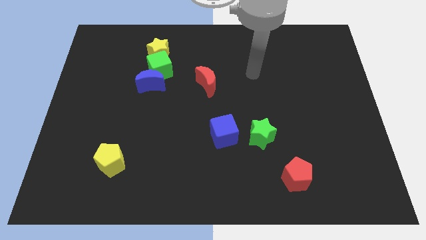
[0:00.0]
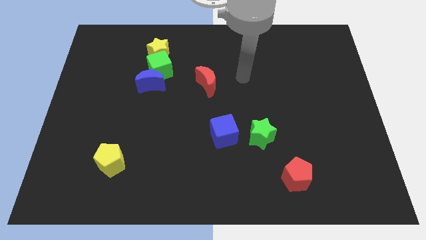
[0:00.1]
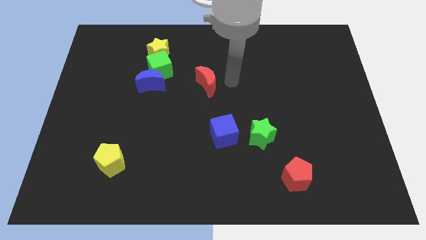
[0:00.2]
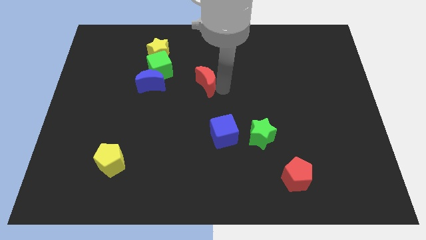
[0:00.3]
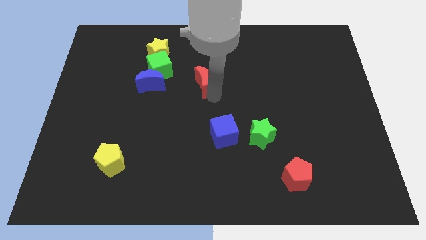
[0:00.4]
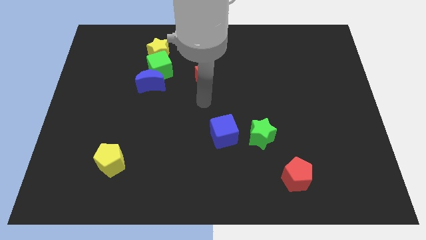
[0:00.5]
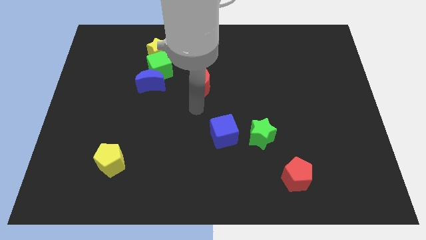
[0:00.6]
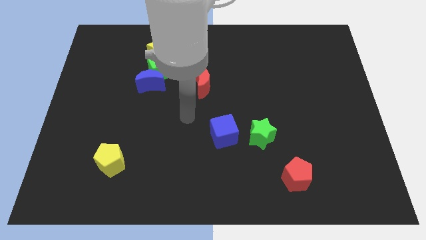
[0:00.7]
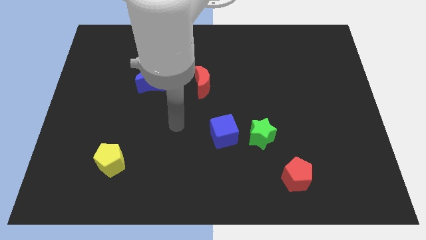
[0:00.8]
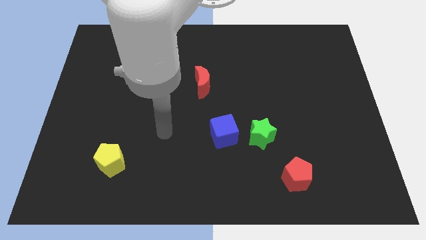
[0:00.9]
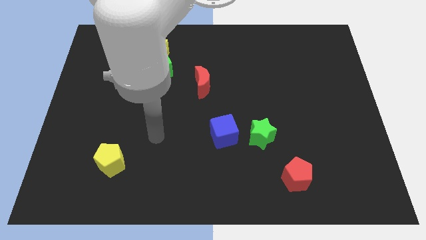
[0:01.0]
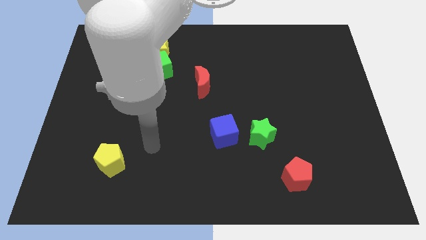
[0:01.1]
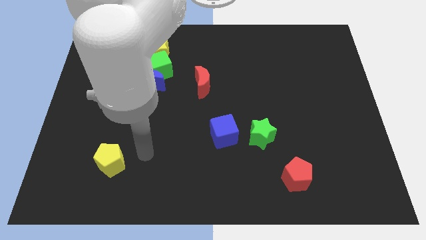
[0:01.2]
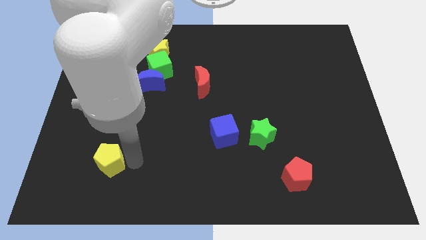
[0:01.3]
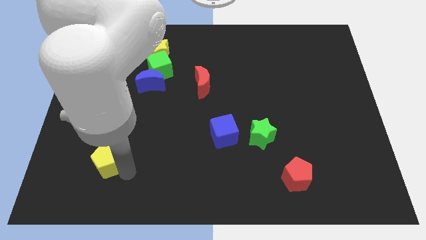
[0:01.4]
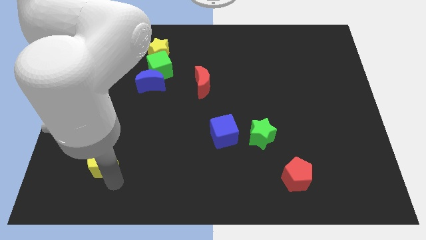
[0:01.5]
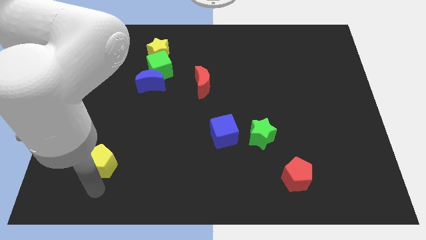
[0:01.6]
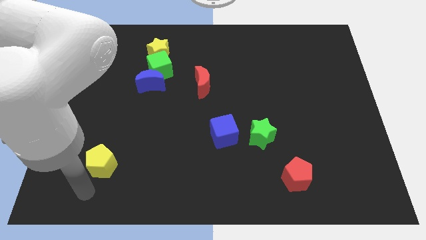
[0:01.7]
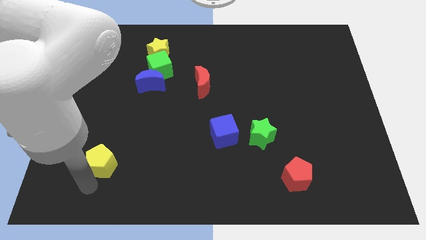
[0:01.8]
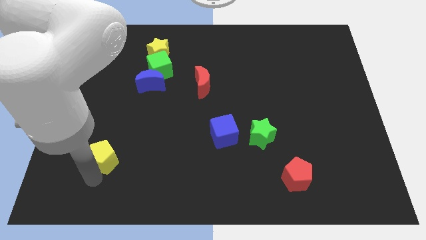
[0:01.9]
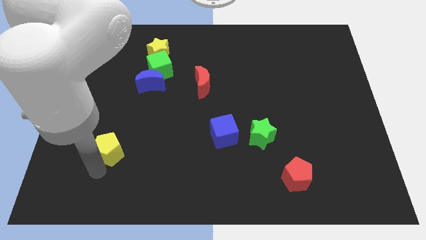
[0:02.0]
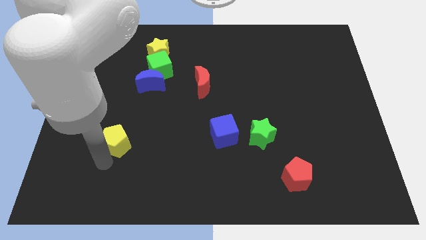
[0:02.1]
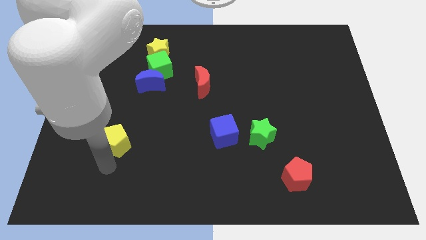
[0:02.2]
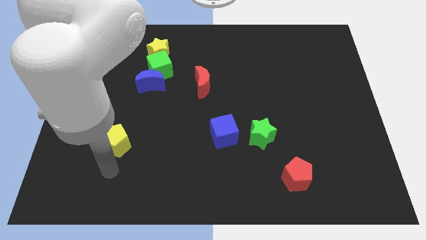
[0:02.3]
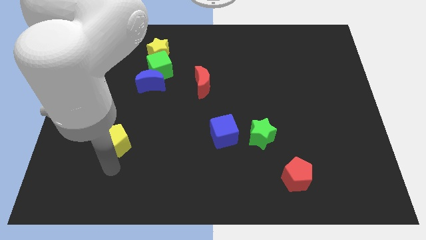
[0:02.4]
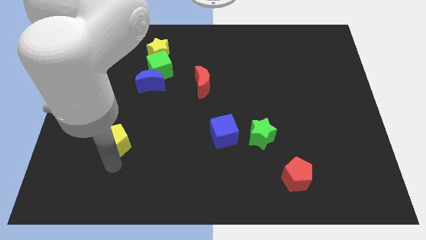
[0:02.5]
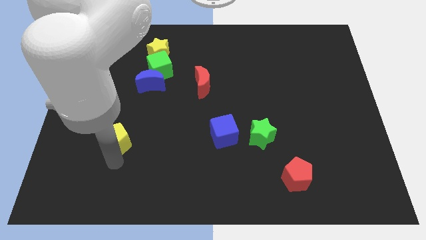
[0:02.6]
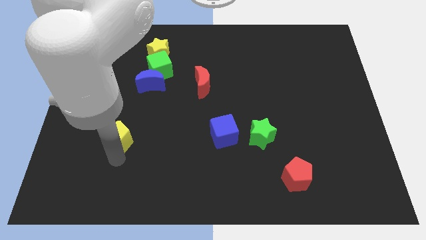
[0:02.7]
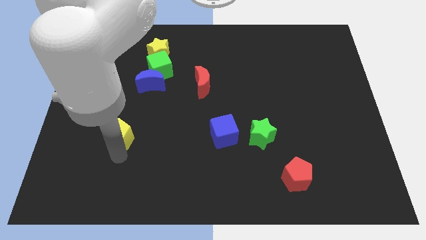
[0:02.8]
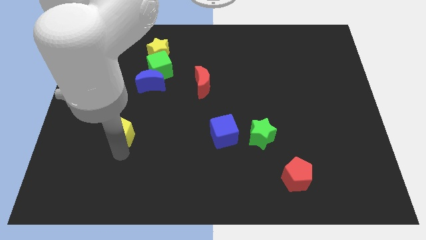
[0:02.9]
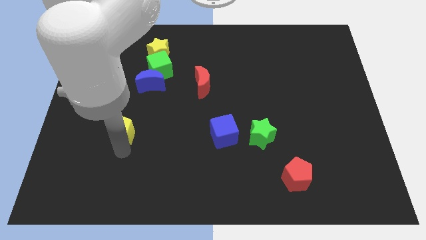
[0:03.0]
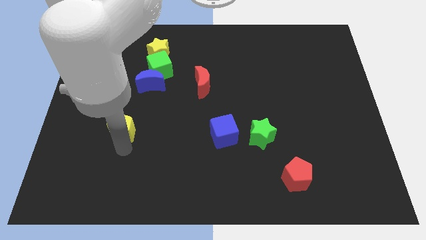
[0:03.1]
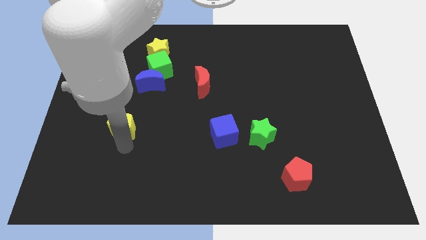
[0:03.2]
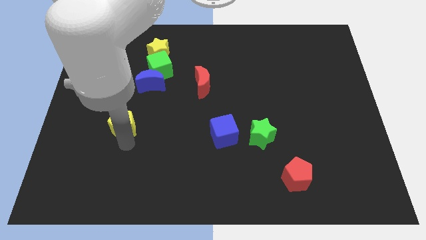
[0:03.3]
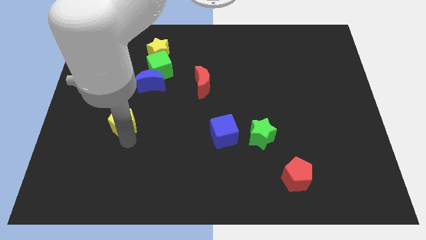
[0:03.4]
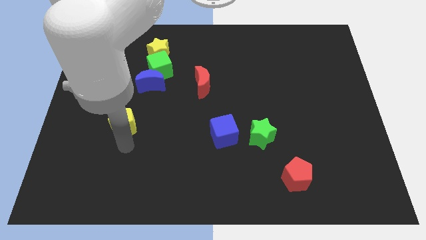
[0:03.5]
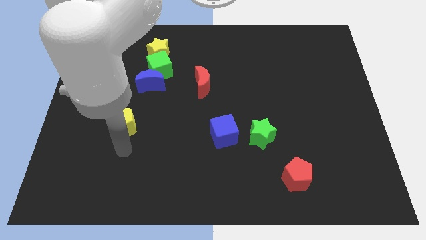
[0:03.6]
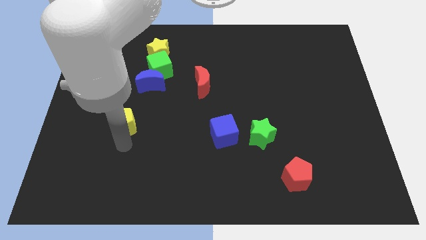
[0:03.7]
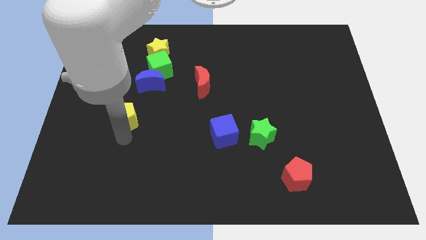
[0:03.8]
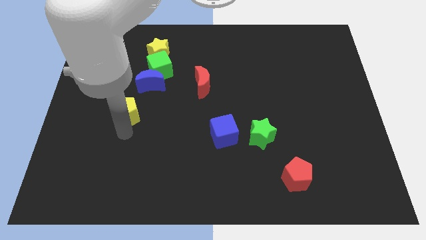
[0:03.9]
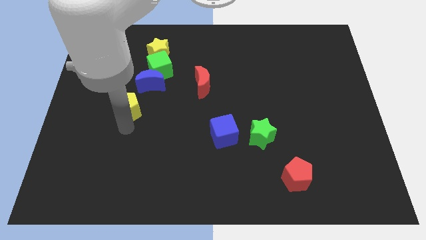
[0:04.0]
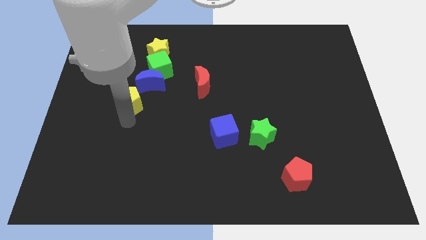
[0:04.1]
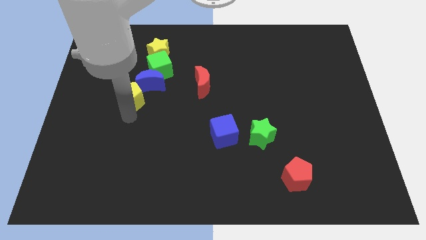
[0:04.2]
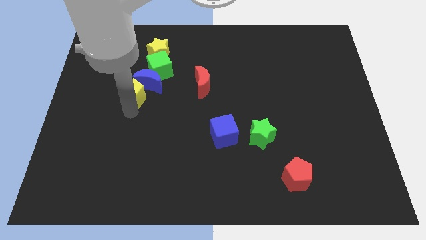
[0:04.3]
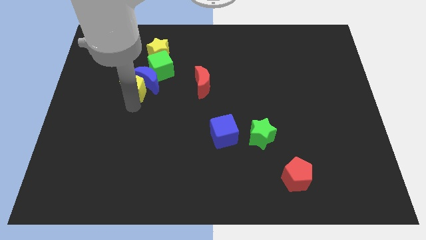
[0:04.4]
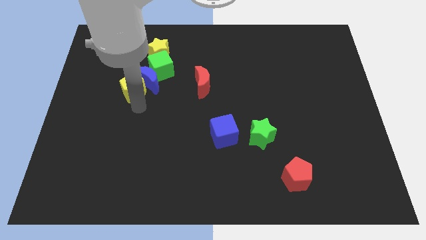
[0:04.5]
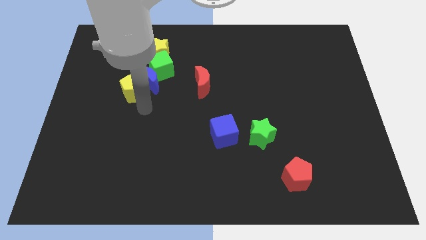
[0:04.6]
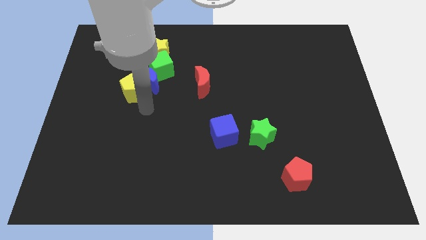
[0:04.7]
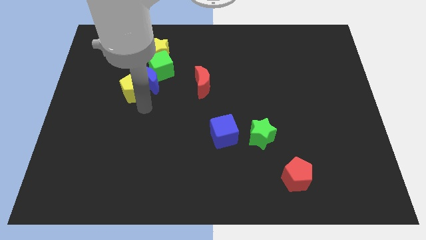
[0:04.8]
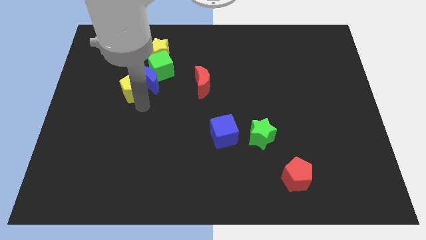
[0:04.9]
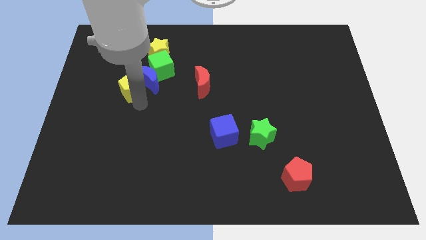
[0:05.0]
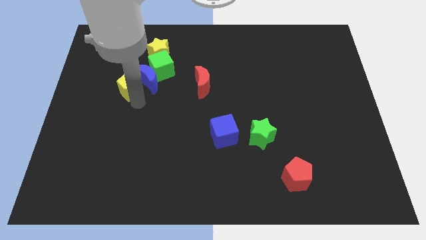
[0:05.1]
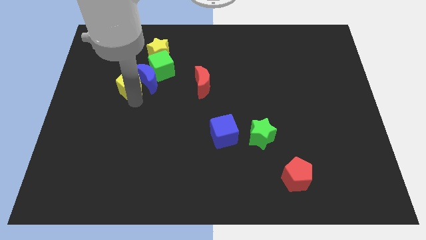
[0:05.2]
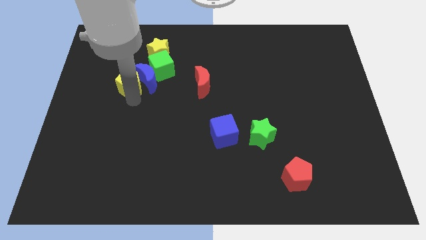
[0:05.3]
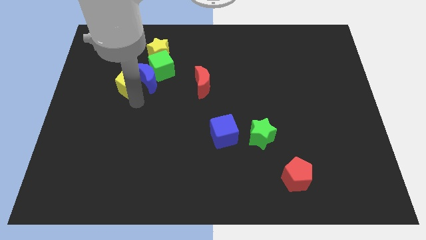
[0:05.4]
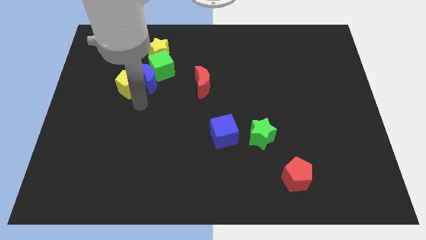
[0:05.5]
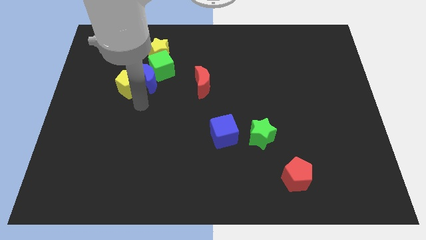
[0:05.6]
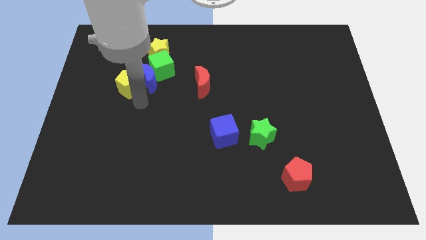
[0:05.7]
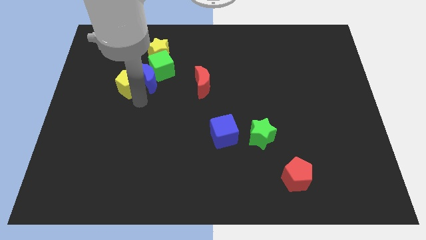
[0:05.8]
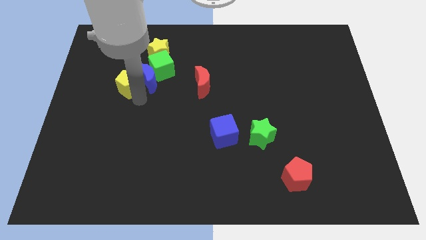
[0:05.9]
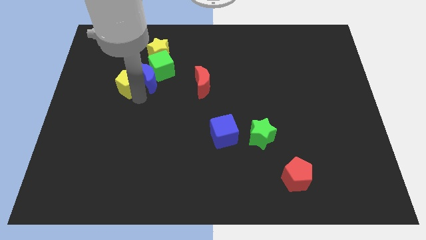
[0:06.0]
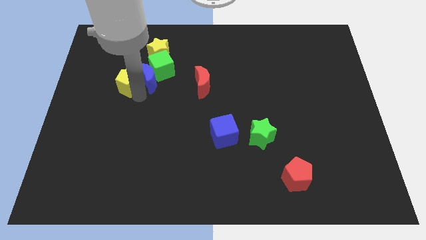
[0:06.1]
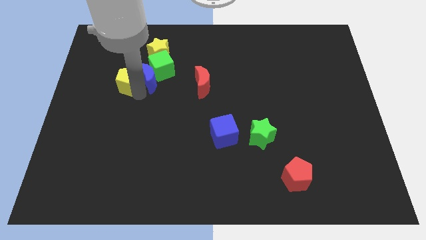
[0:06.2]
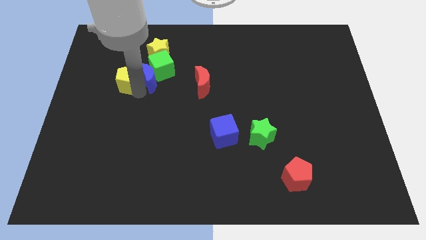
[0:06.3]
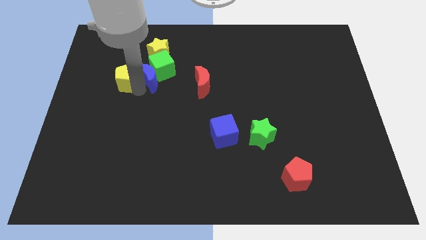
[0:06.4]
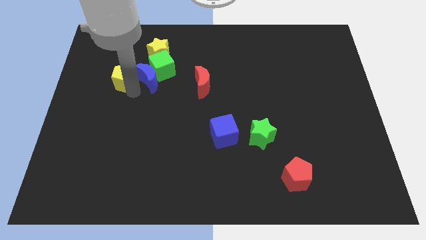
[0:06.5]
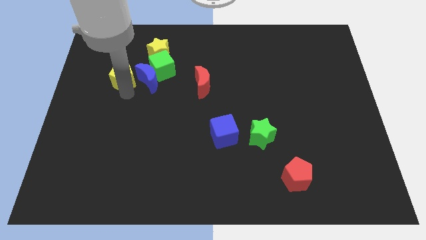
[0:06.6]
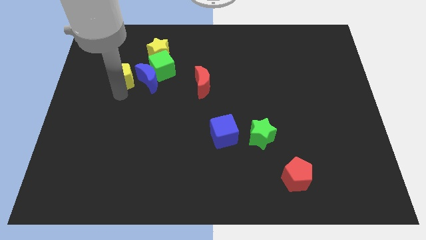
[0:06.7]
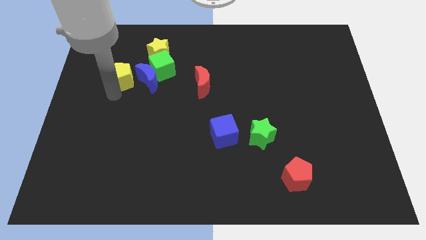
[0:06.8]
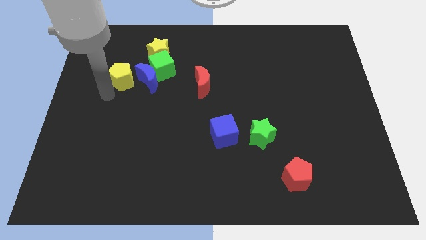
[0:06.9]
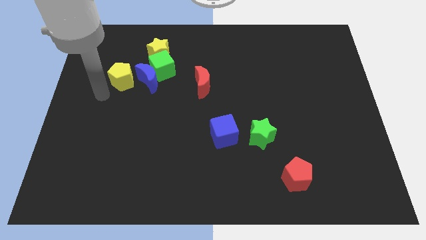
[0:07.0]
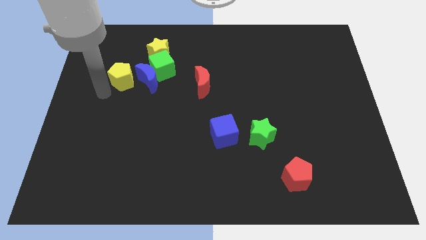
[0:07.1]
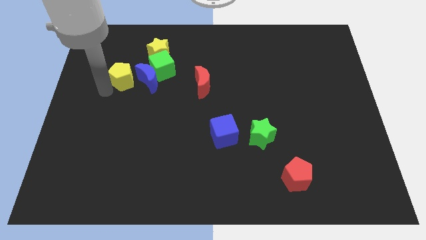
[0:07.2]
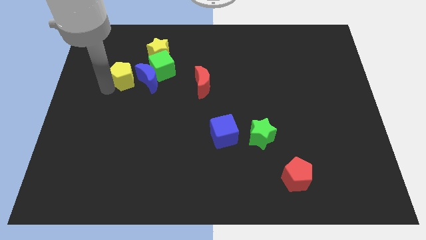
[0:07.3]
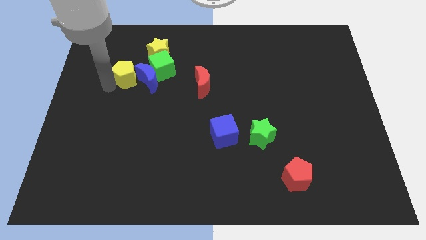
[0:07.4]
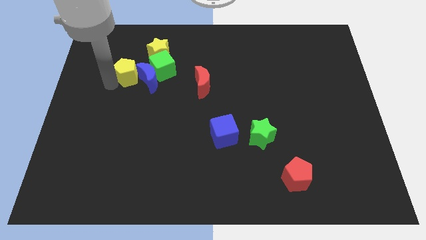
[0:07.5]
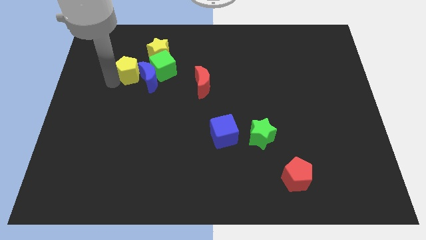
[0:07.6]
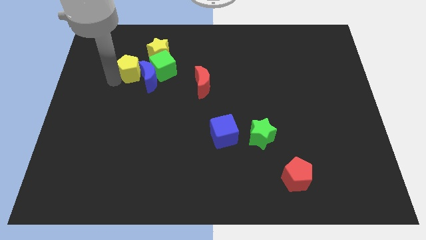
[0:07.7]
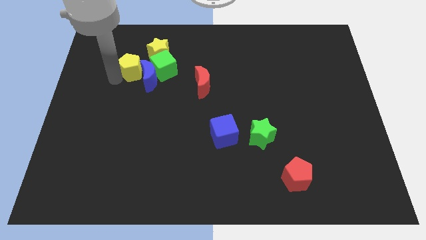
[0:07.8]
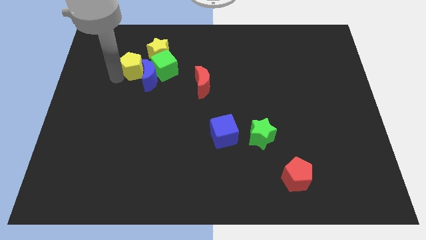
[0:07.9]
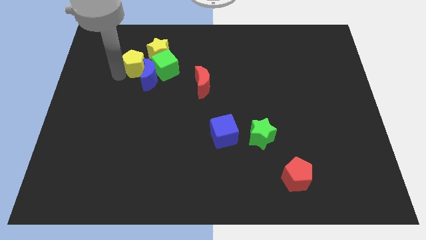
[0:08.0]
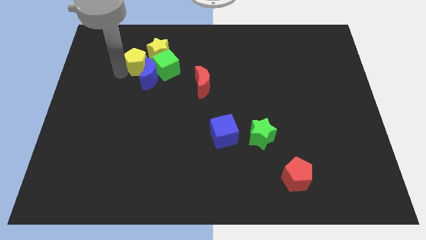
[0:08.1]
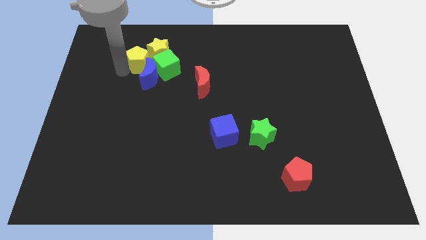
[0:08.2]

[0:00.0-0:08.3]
push the yellow pentagon to the yellow star
